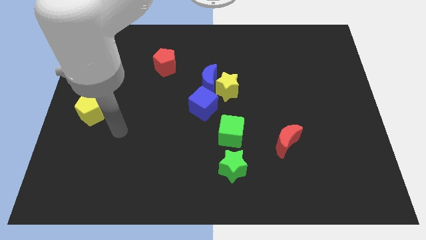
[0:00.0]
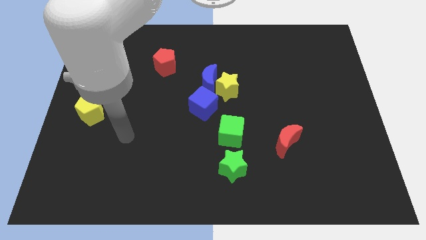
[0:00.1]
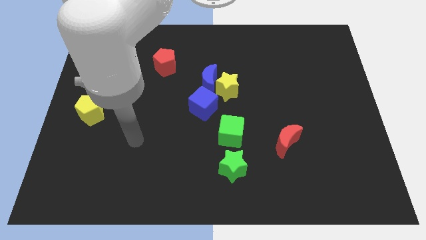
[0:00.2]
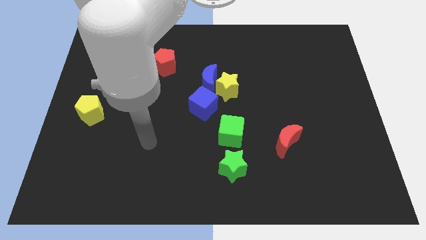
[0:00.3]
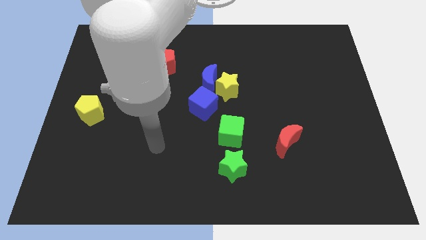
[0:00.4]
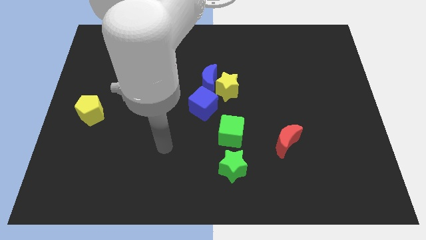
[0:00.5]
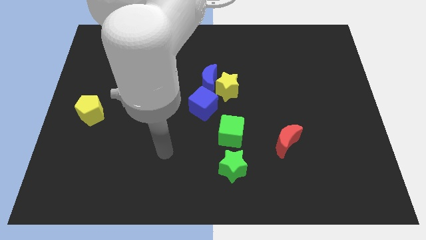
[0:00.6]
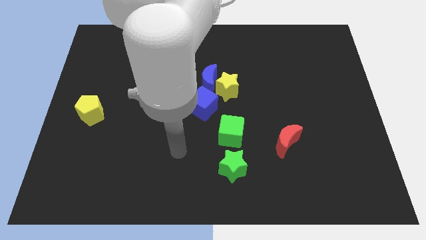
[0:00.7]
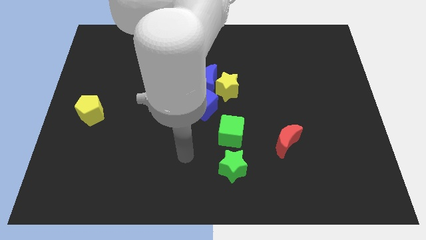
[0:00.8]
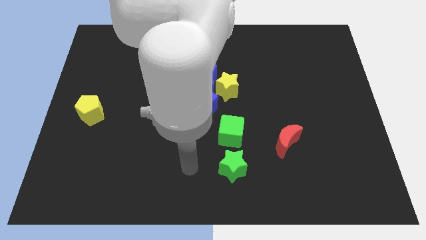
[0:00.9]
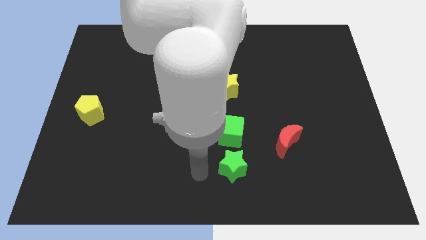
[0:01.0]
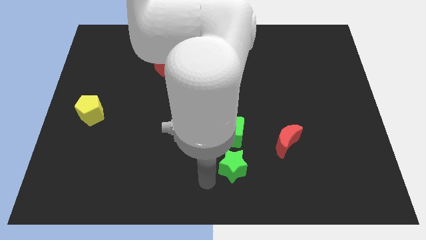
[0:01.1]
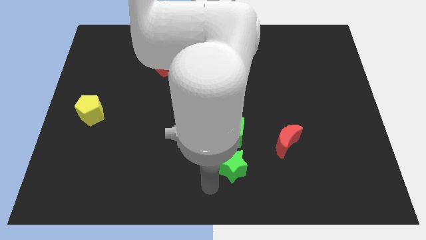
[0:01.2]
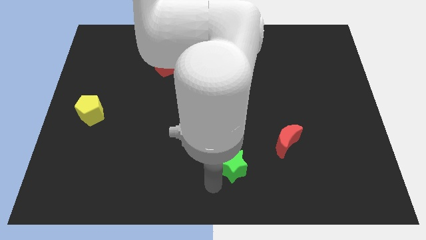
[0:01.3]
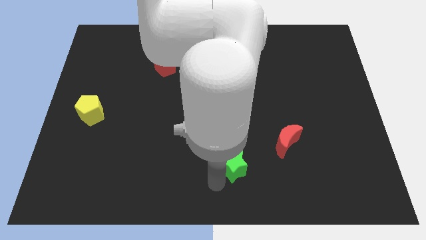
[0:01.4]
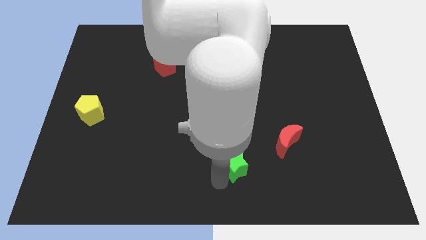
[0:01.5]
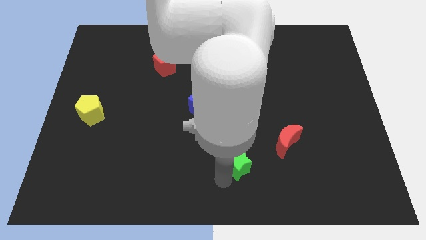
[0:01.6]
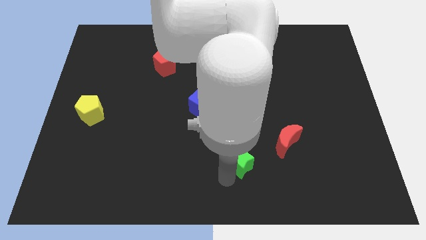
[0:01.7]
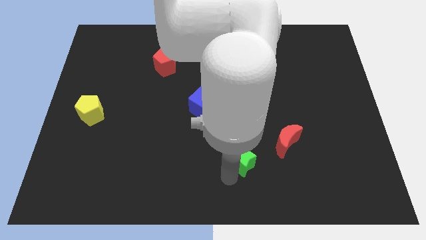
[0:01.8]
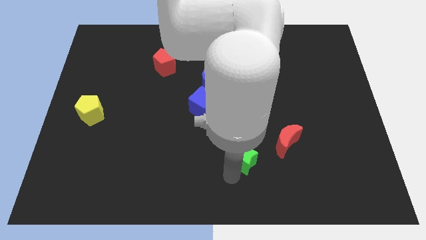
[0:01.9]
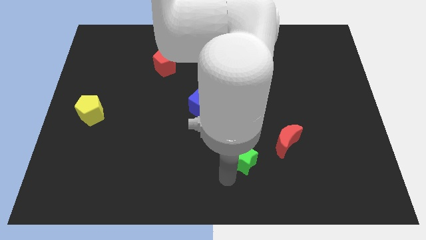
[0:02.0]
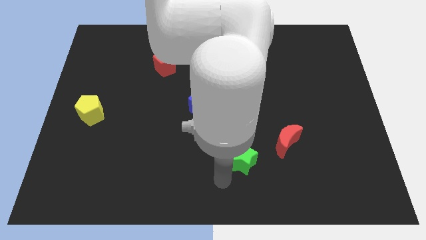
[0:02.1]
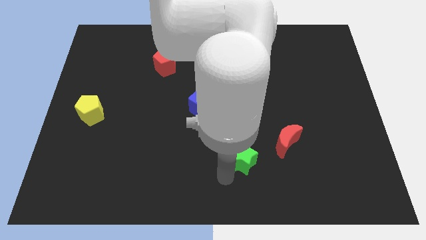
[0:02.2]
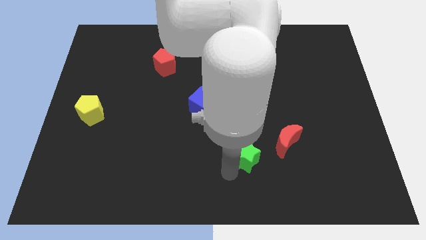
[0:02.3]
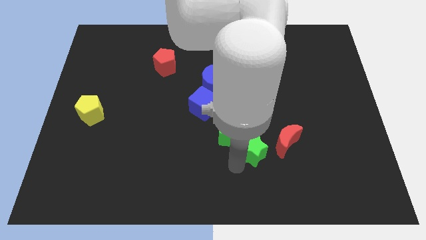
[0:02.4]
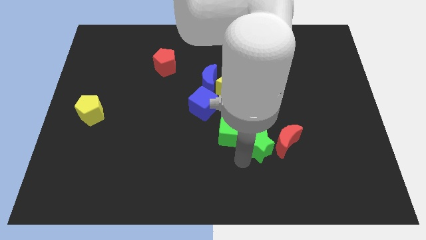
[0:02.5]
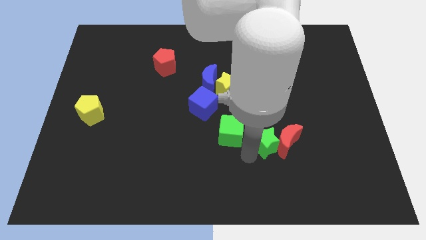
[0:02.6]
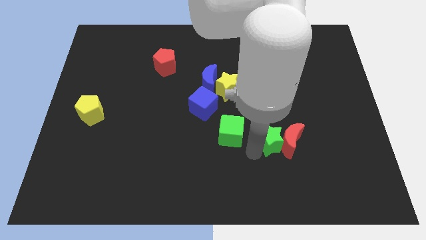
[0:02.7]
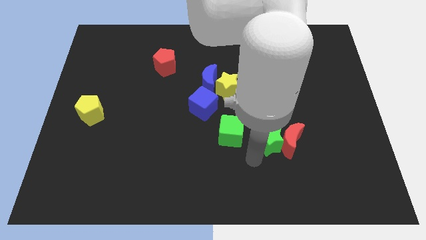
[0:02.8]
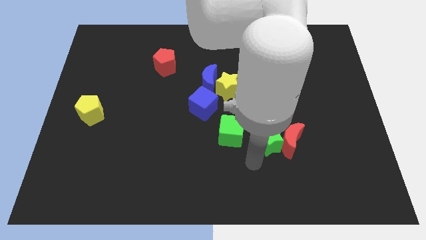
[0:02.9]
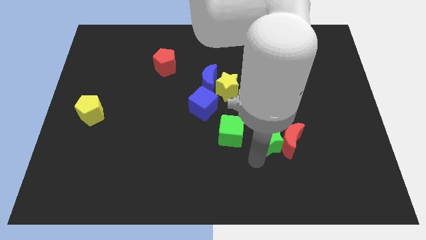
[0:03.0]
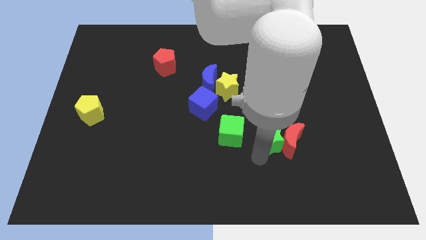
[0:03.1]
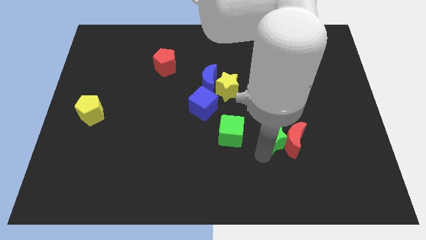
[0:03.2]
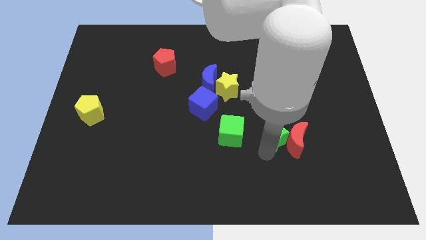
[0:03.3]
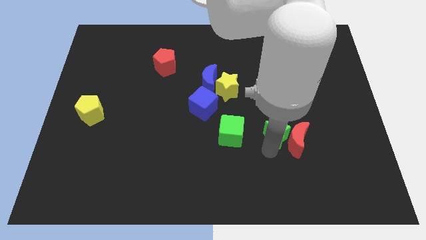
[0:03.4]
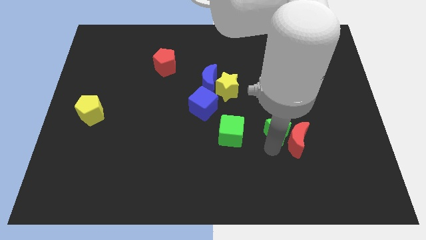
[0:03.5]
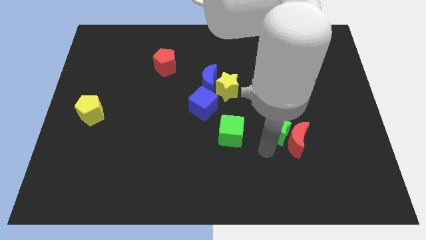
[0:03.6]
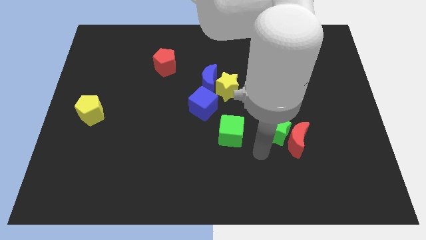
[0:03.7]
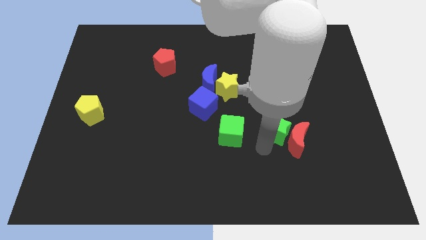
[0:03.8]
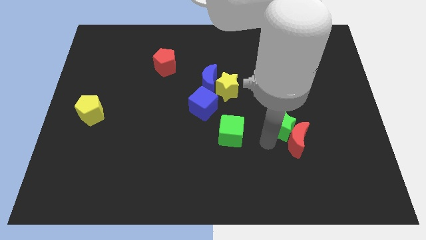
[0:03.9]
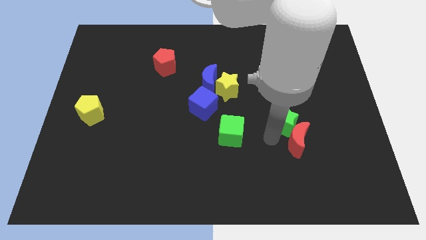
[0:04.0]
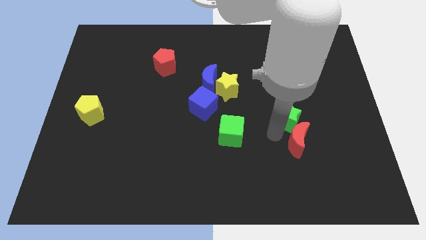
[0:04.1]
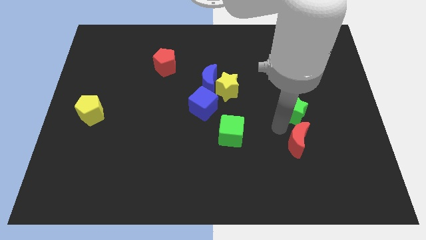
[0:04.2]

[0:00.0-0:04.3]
push the green star upwards and to the right diagonally

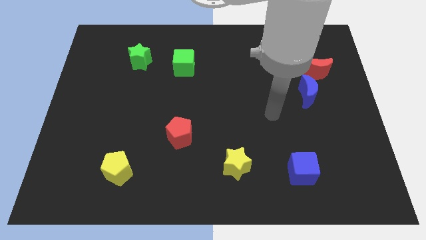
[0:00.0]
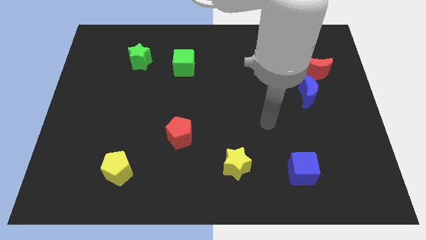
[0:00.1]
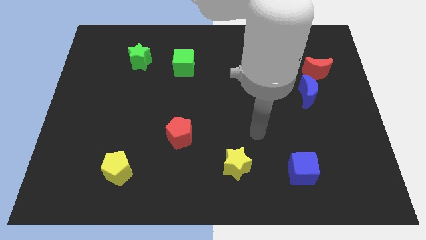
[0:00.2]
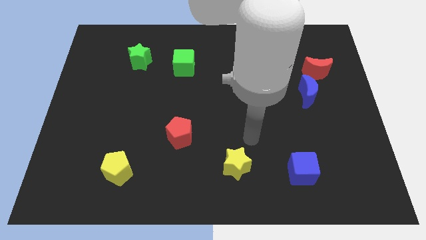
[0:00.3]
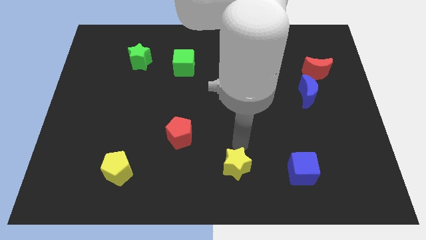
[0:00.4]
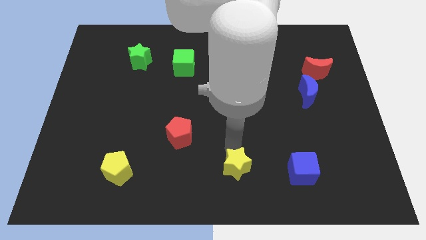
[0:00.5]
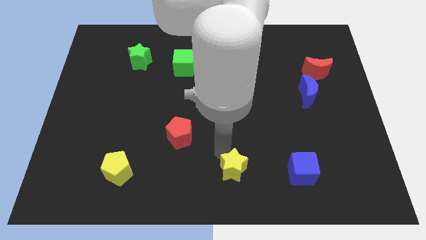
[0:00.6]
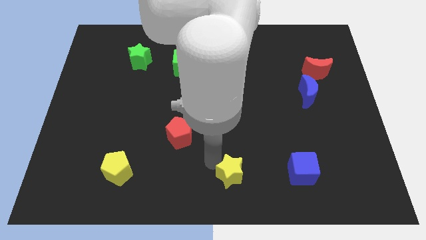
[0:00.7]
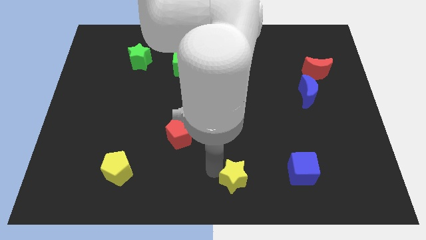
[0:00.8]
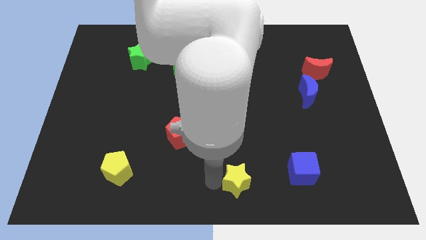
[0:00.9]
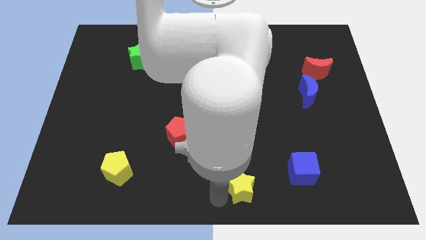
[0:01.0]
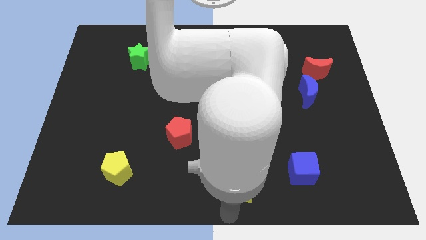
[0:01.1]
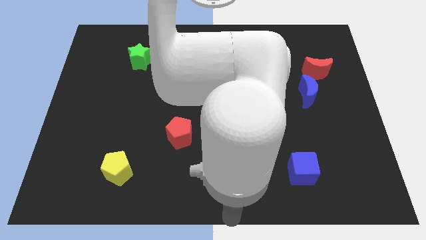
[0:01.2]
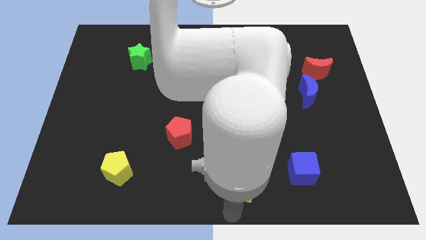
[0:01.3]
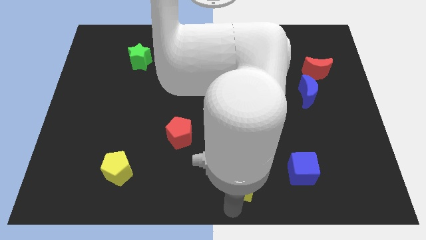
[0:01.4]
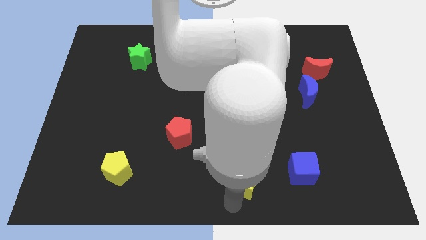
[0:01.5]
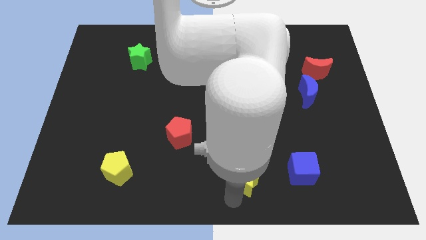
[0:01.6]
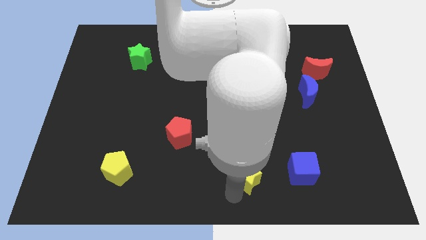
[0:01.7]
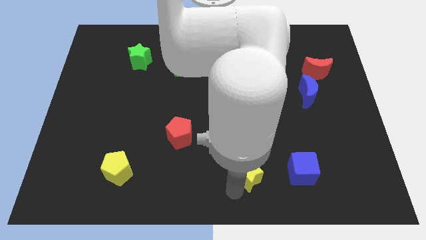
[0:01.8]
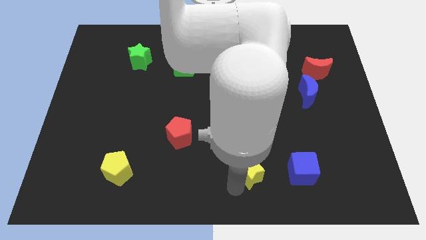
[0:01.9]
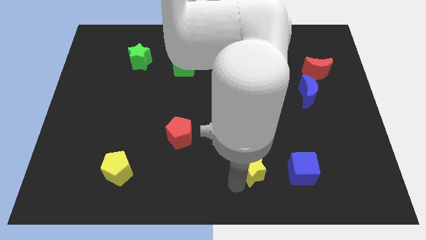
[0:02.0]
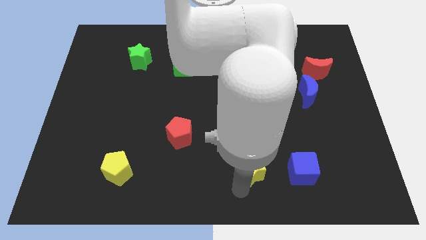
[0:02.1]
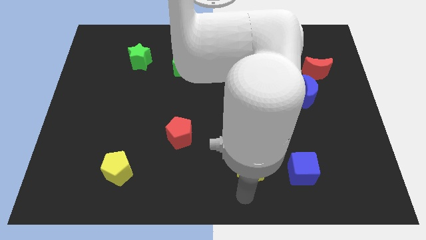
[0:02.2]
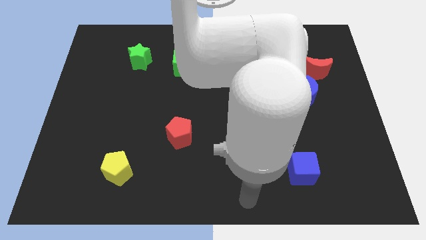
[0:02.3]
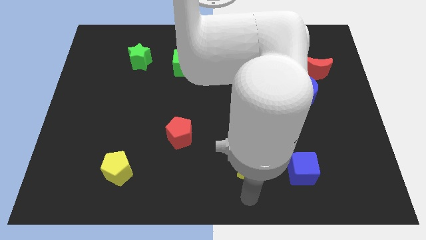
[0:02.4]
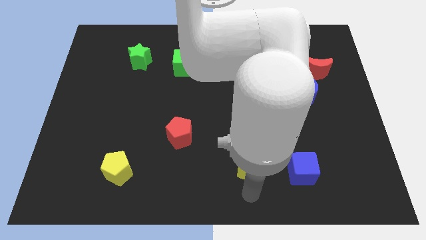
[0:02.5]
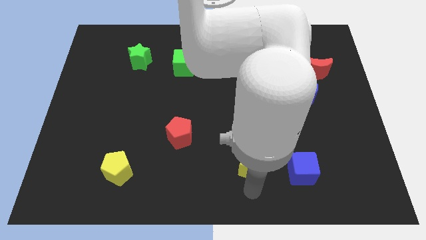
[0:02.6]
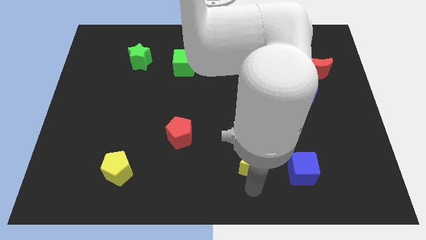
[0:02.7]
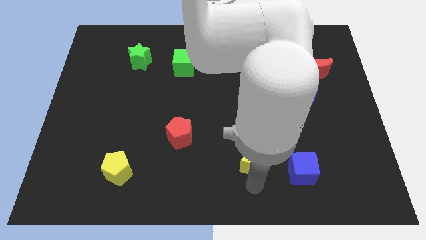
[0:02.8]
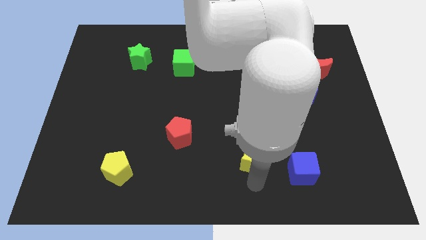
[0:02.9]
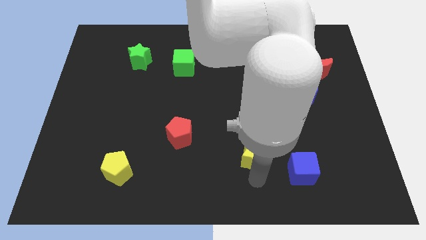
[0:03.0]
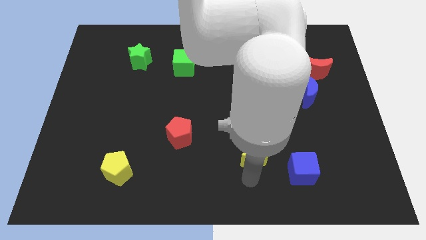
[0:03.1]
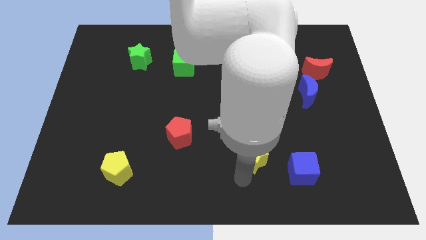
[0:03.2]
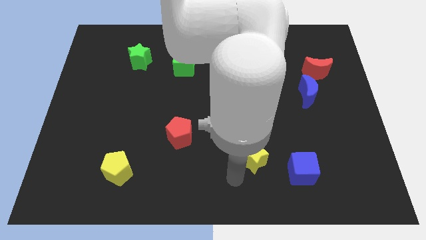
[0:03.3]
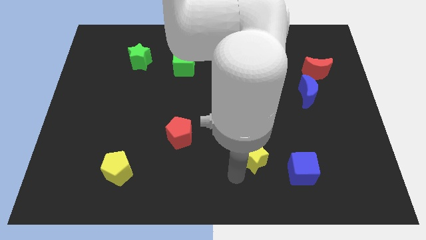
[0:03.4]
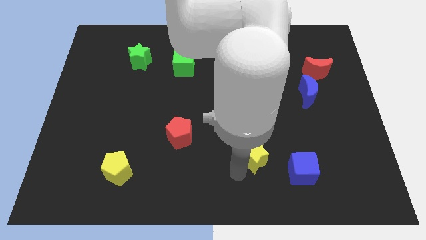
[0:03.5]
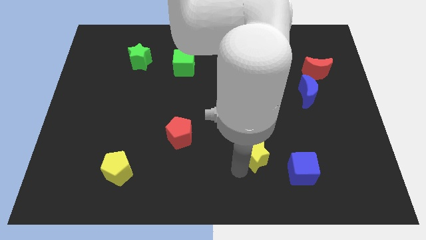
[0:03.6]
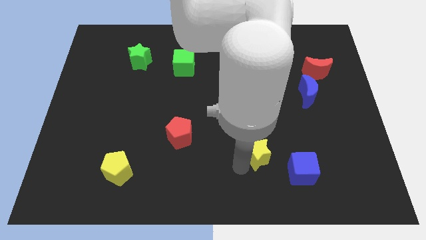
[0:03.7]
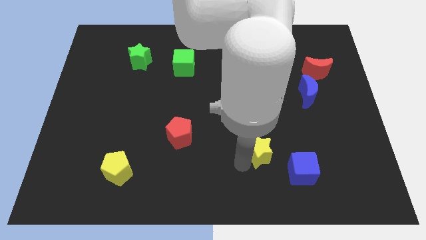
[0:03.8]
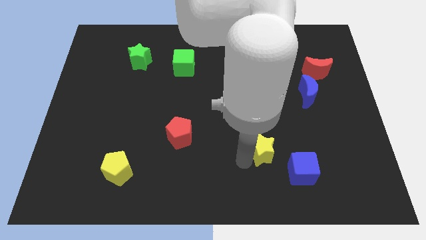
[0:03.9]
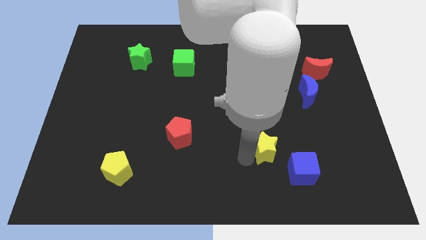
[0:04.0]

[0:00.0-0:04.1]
slightly move the yellow star upwards and then to the right
